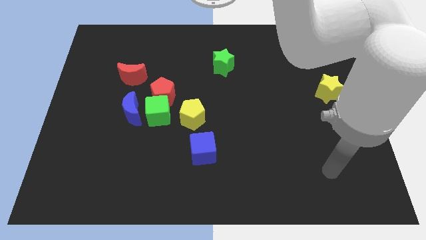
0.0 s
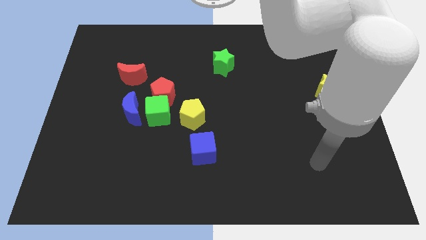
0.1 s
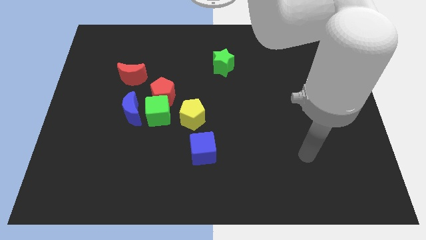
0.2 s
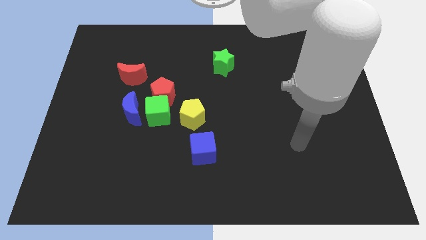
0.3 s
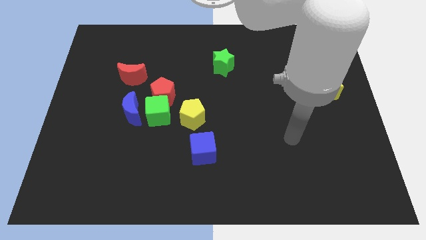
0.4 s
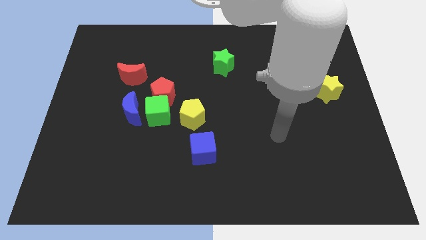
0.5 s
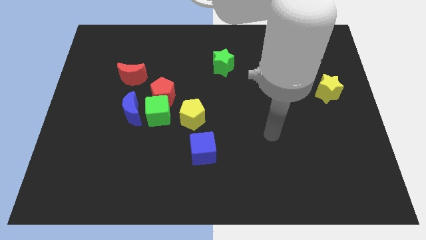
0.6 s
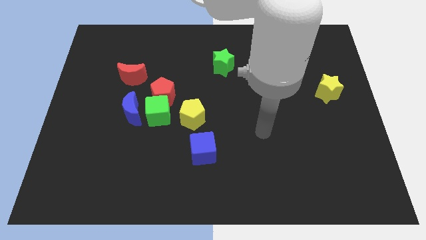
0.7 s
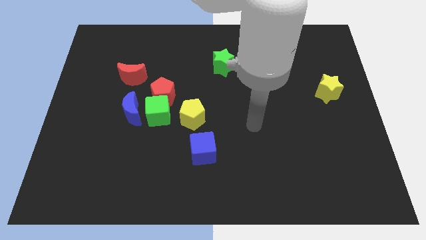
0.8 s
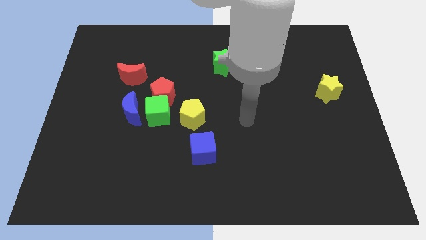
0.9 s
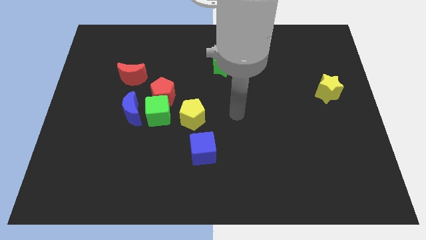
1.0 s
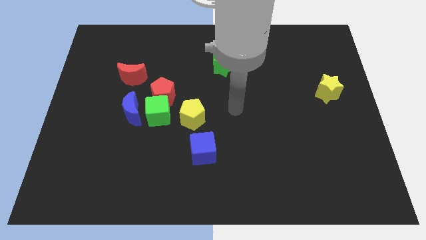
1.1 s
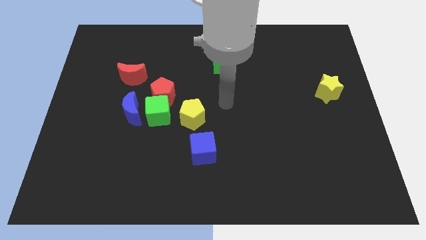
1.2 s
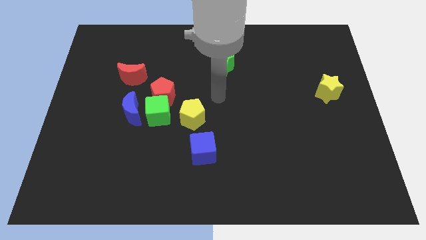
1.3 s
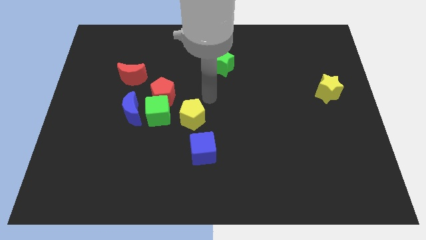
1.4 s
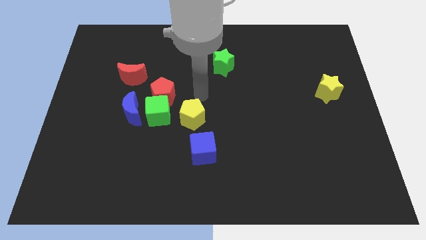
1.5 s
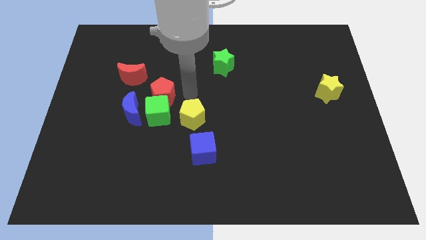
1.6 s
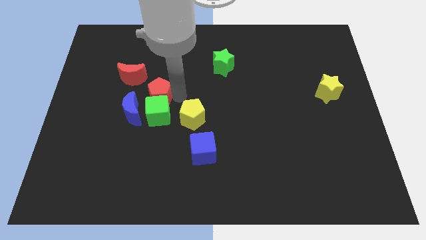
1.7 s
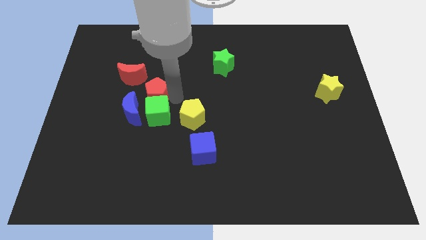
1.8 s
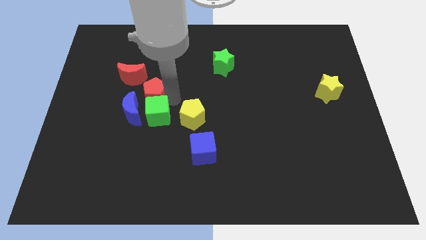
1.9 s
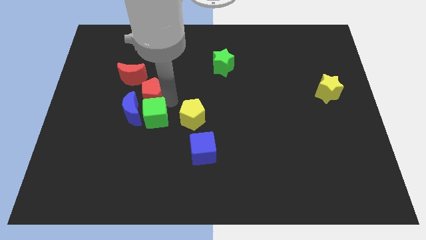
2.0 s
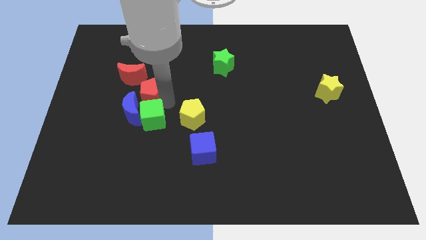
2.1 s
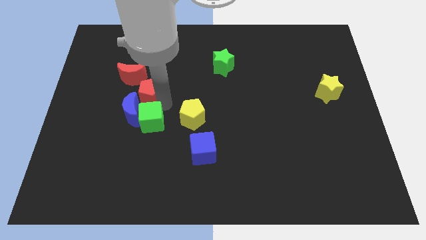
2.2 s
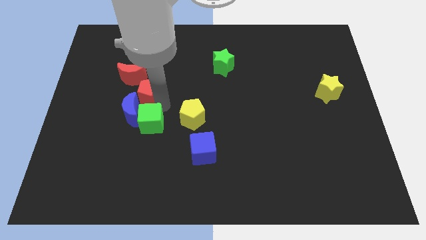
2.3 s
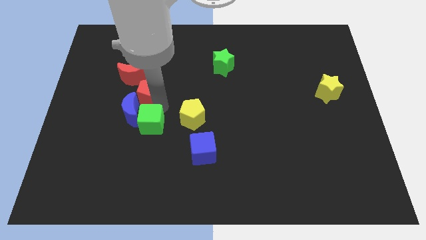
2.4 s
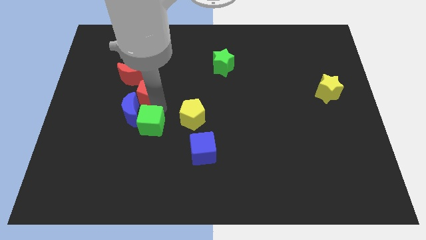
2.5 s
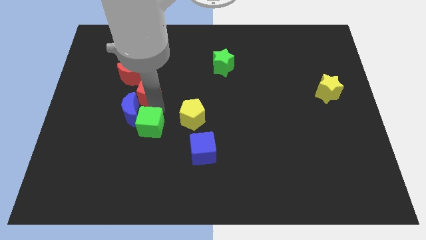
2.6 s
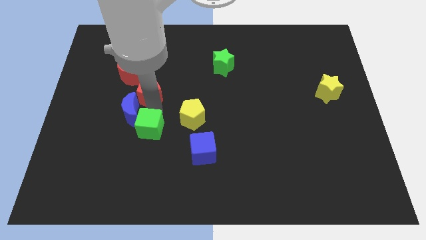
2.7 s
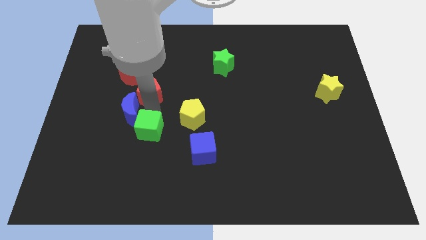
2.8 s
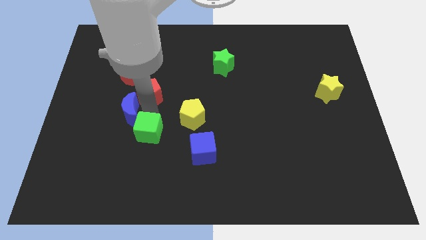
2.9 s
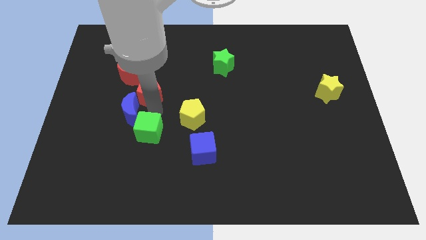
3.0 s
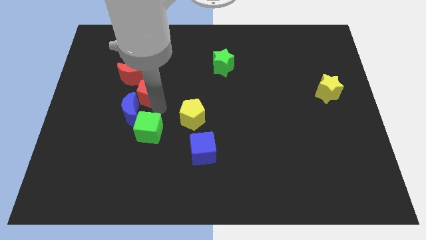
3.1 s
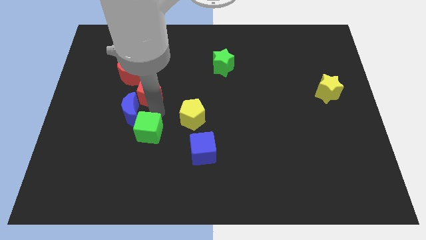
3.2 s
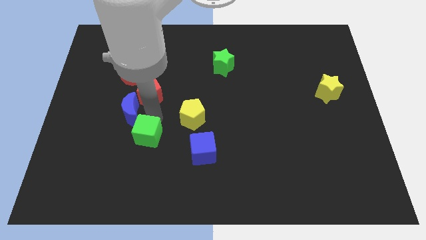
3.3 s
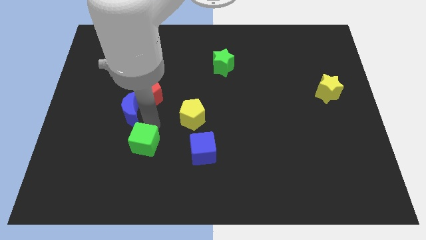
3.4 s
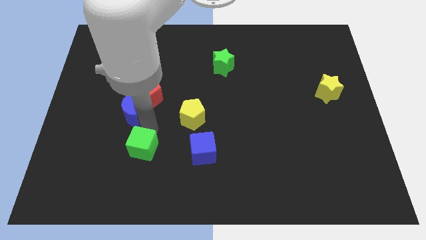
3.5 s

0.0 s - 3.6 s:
pull the green cube apart from the red pentagon, blue moon, and yellow pentagon

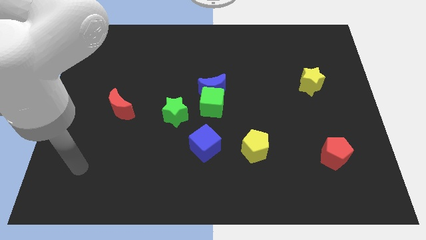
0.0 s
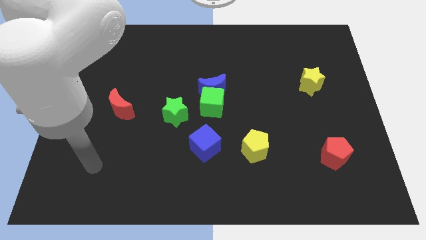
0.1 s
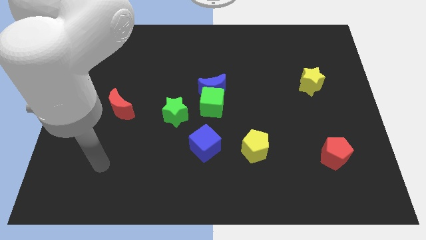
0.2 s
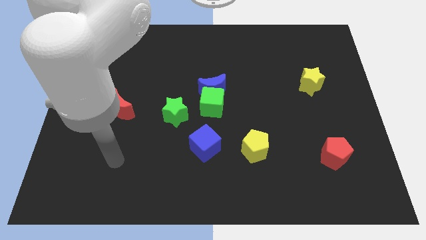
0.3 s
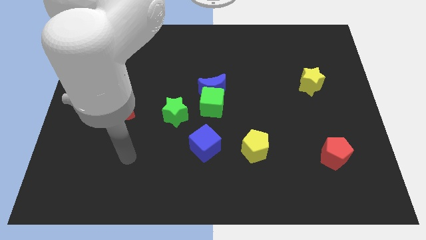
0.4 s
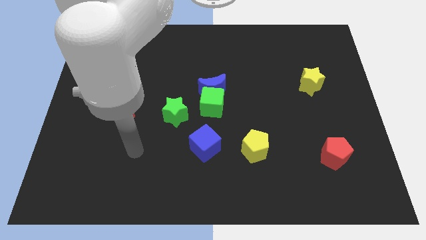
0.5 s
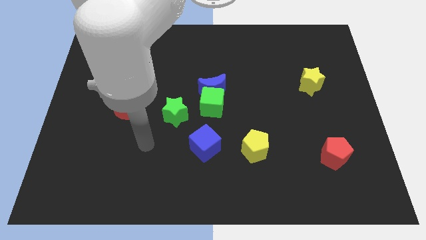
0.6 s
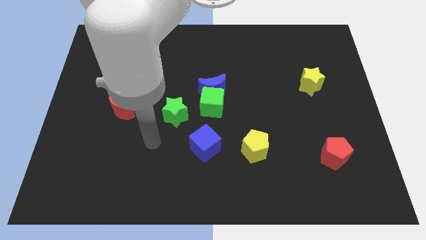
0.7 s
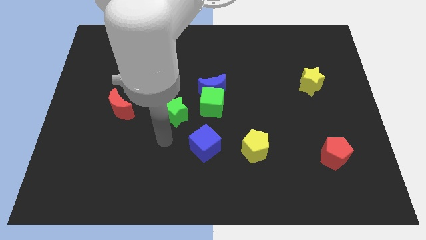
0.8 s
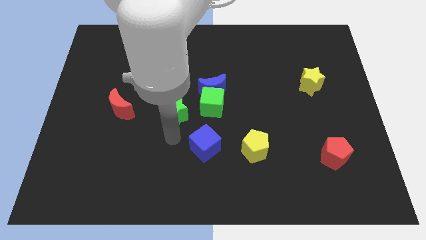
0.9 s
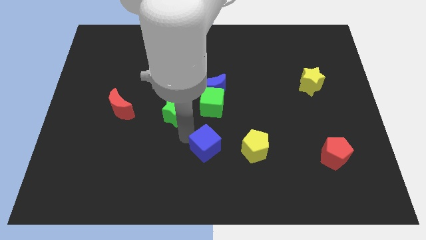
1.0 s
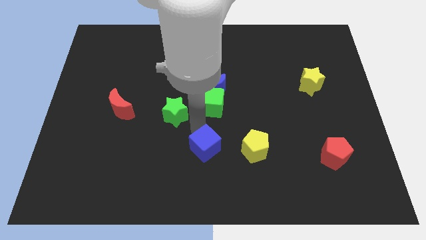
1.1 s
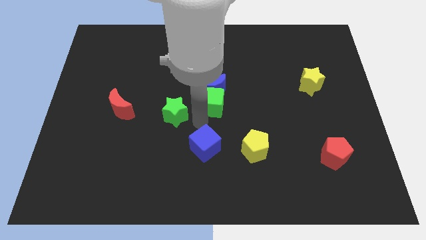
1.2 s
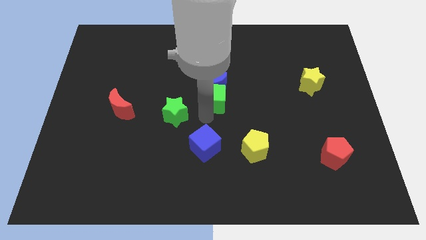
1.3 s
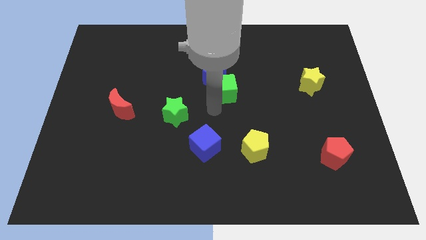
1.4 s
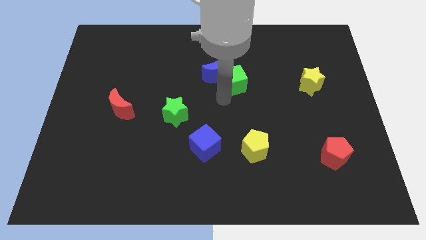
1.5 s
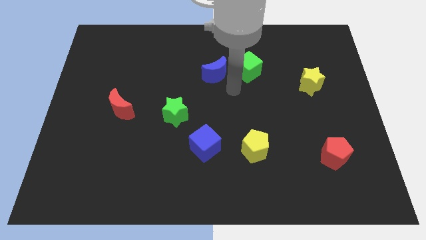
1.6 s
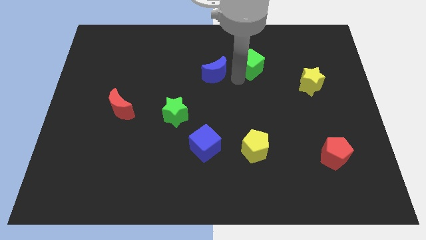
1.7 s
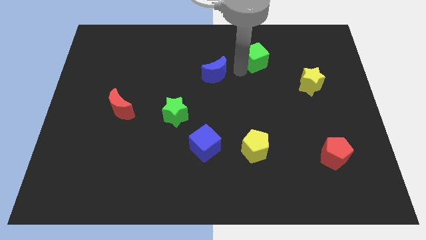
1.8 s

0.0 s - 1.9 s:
pull the blue moon apart from the green cube

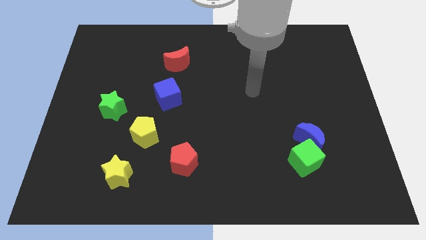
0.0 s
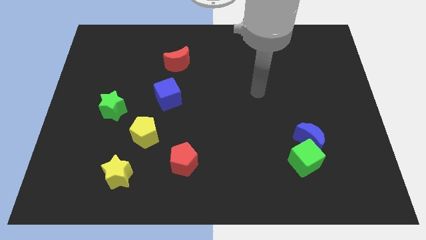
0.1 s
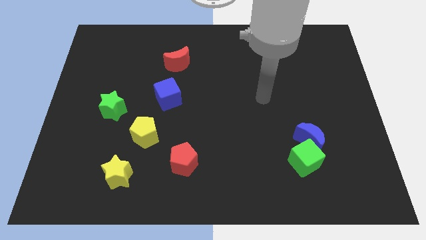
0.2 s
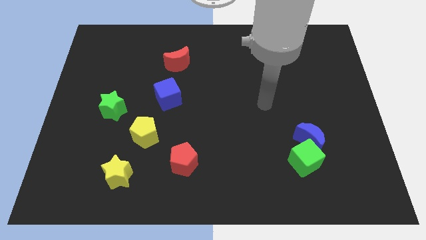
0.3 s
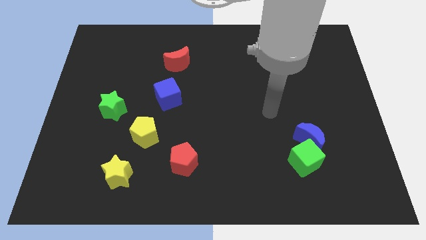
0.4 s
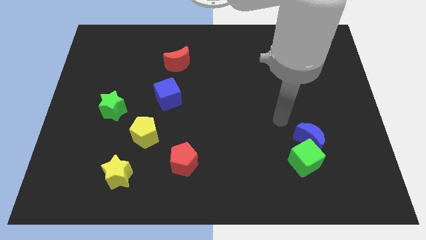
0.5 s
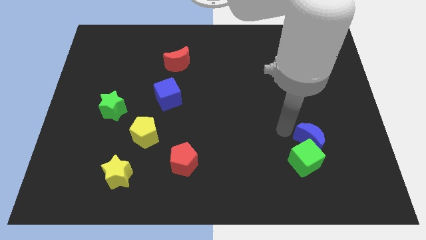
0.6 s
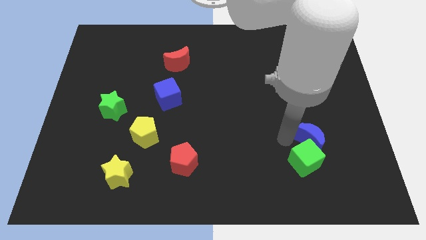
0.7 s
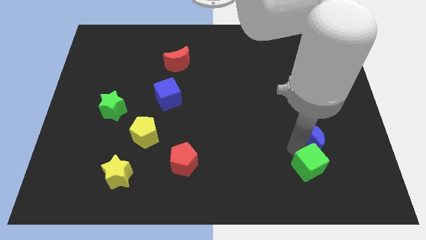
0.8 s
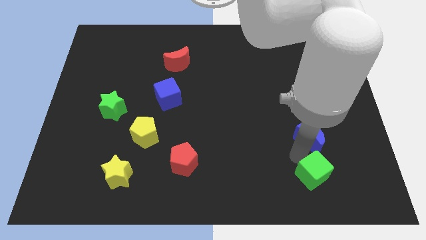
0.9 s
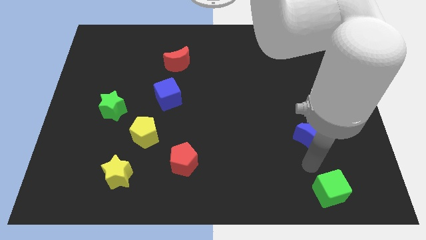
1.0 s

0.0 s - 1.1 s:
separate the blue moon from the green cube

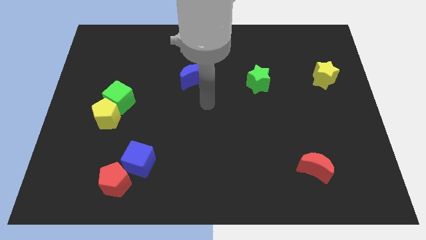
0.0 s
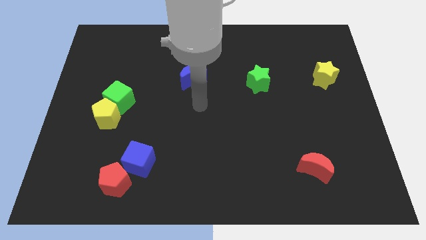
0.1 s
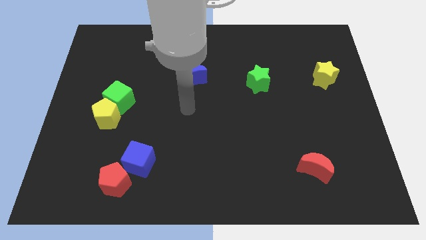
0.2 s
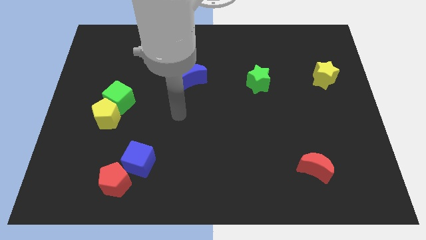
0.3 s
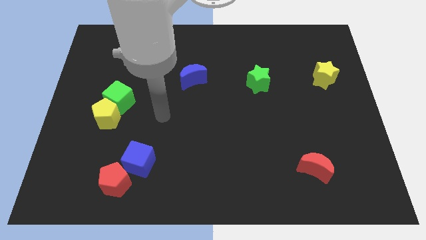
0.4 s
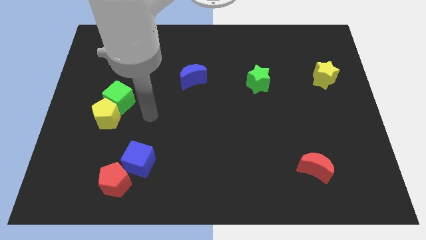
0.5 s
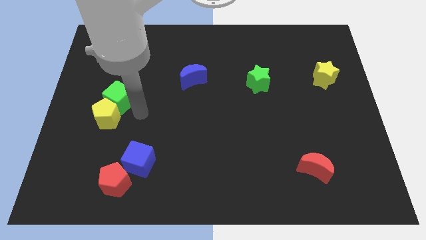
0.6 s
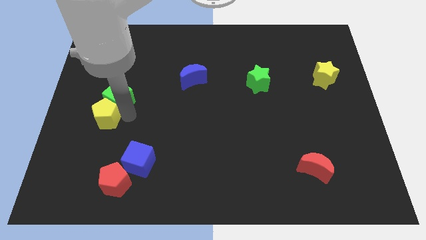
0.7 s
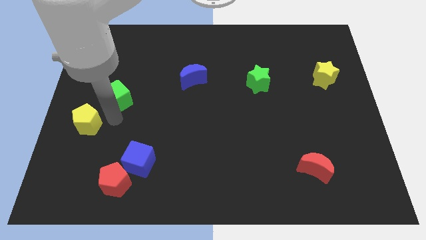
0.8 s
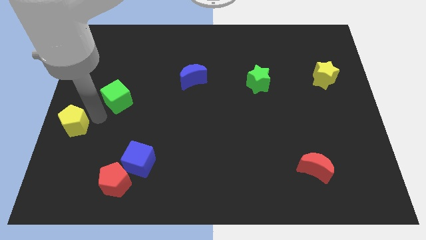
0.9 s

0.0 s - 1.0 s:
separate the green cube from the yellow pentagon

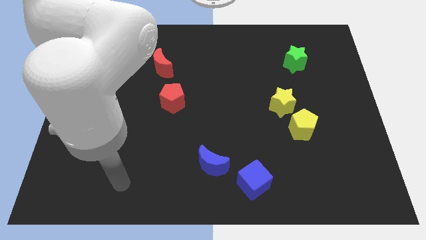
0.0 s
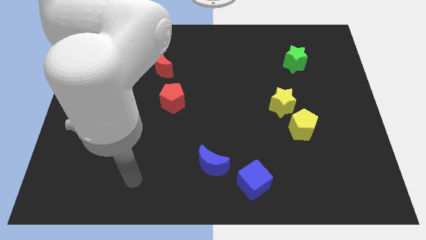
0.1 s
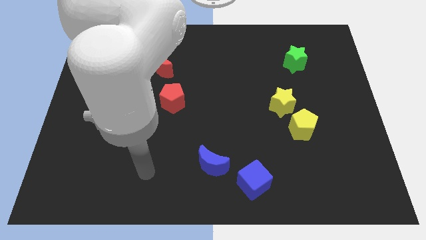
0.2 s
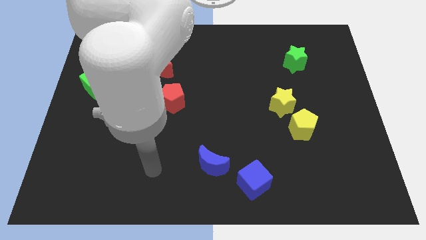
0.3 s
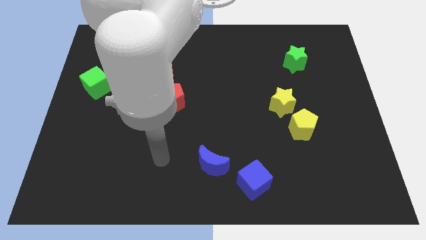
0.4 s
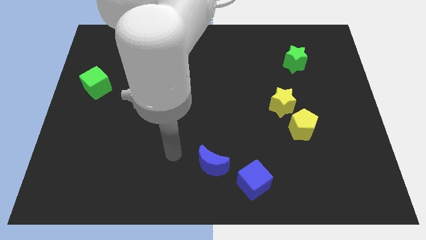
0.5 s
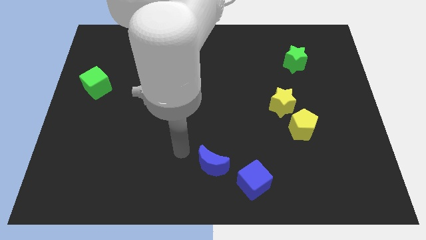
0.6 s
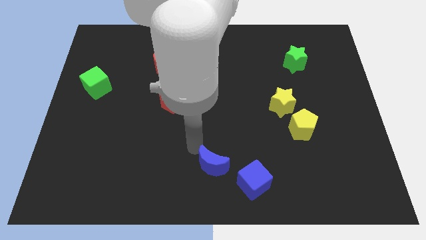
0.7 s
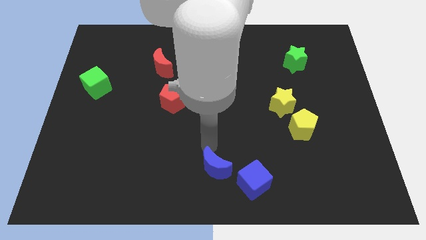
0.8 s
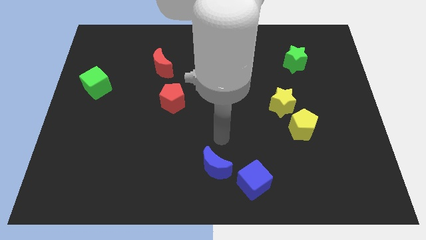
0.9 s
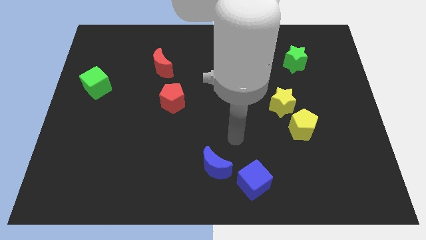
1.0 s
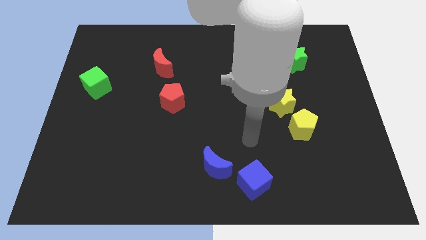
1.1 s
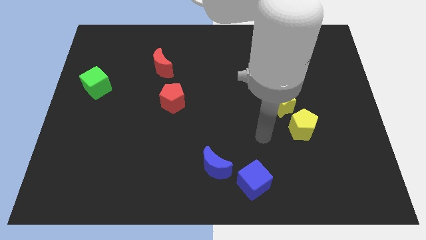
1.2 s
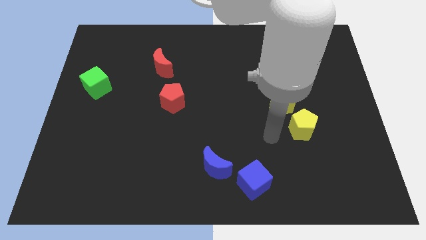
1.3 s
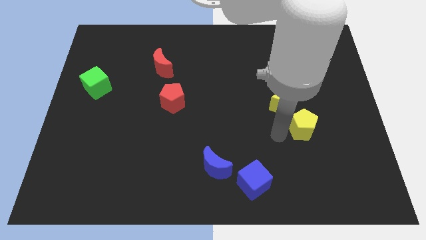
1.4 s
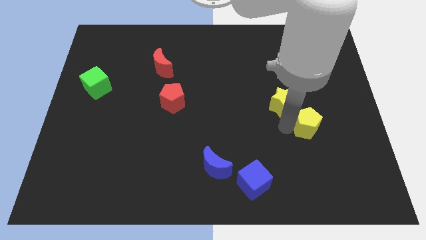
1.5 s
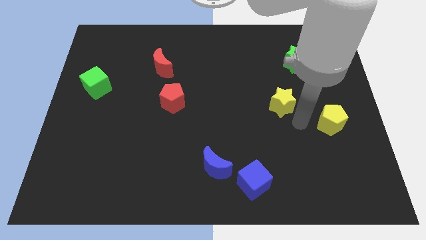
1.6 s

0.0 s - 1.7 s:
pull the yellow star apart from the yellow pentagon
